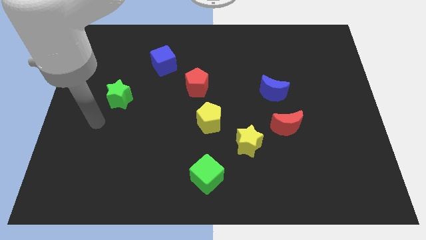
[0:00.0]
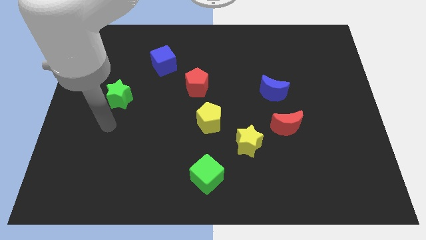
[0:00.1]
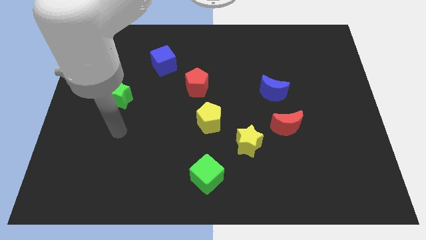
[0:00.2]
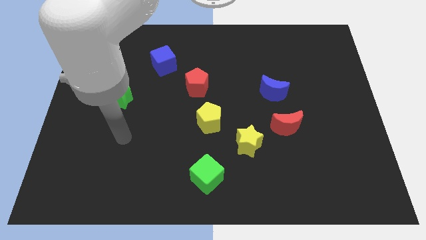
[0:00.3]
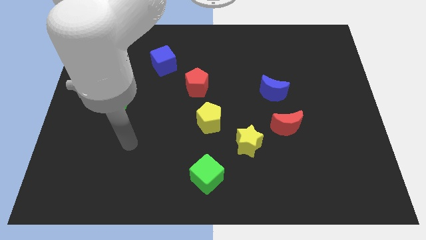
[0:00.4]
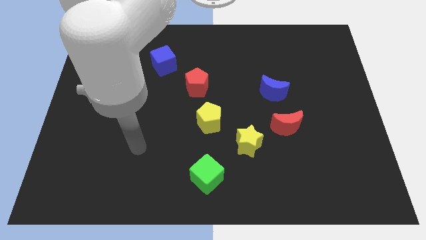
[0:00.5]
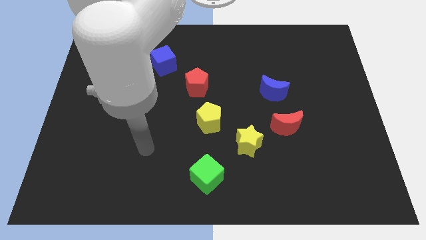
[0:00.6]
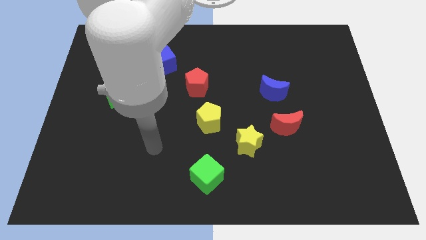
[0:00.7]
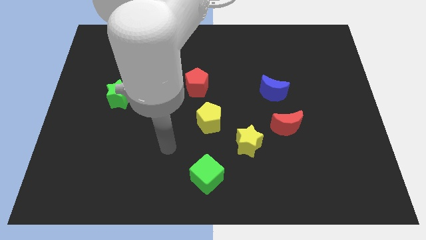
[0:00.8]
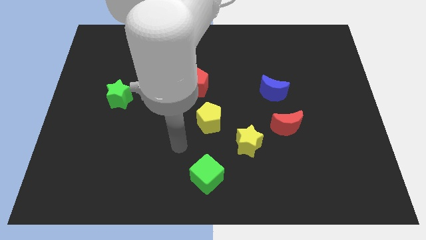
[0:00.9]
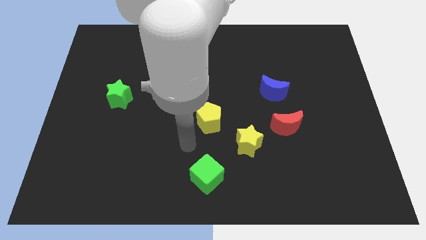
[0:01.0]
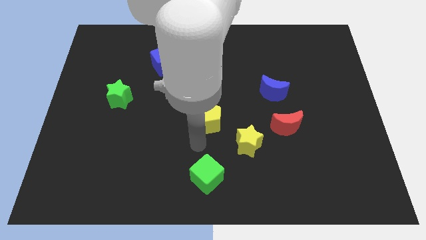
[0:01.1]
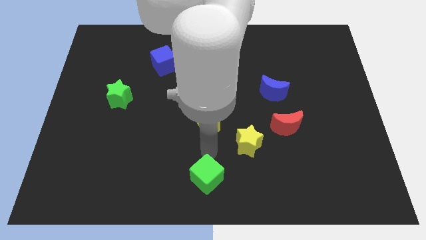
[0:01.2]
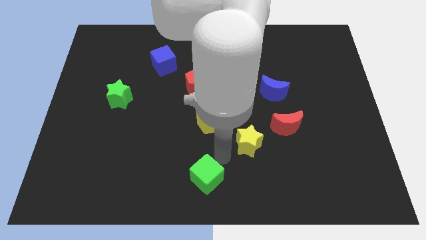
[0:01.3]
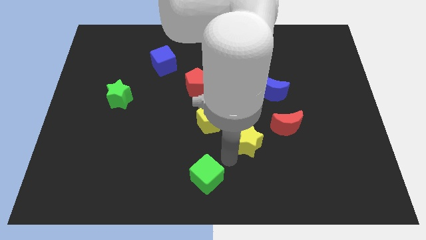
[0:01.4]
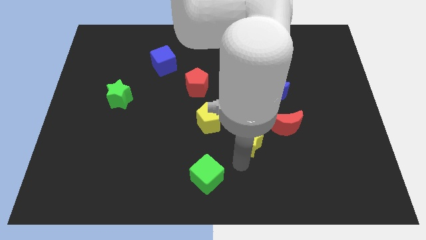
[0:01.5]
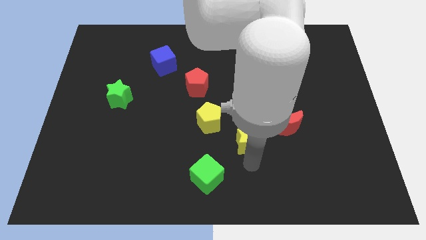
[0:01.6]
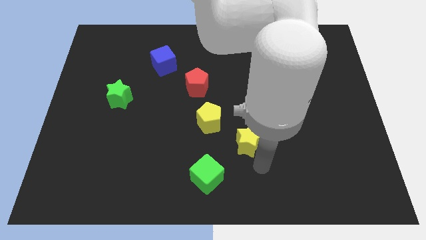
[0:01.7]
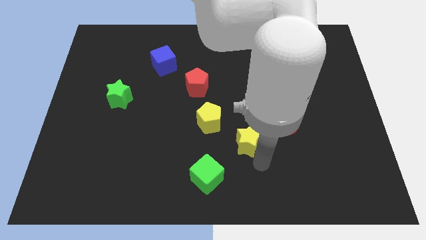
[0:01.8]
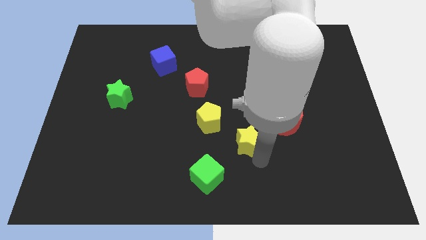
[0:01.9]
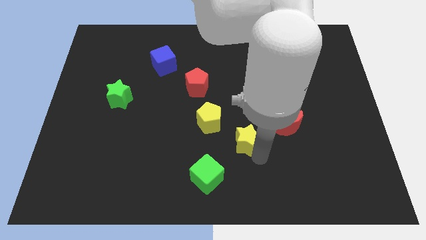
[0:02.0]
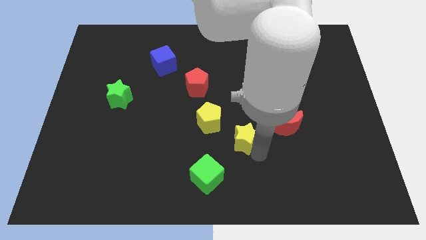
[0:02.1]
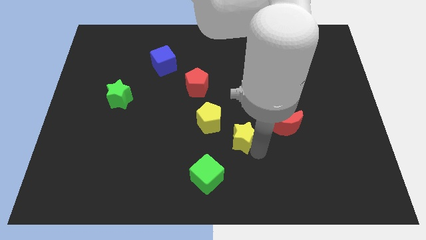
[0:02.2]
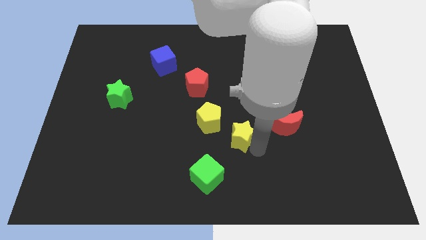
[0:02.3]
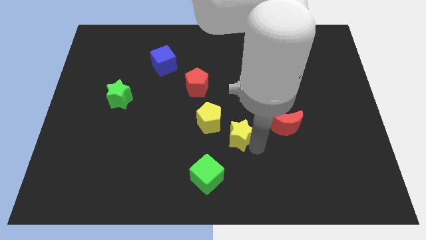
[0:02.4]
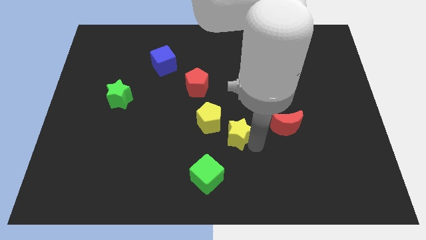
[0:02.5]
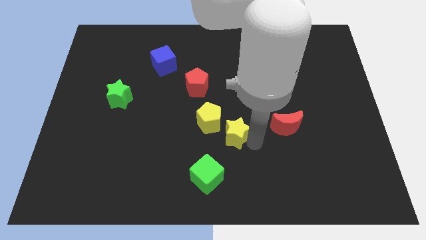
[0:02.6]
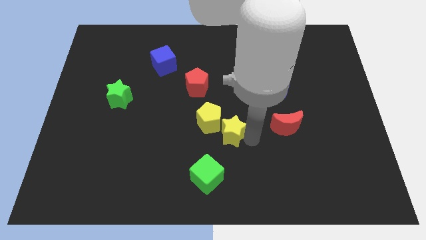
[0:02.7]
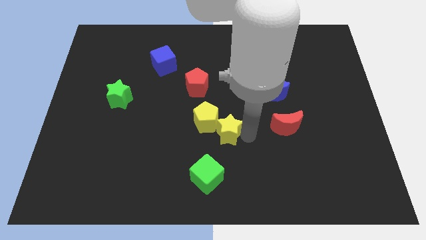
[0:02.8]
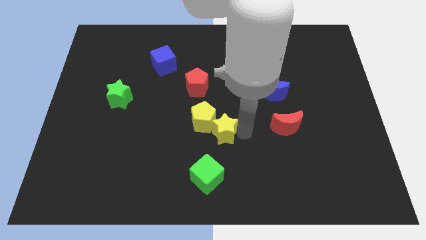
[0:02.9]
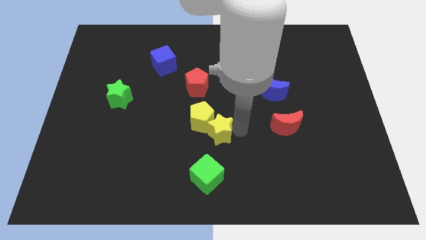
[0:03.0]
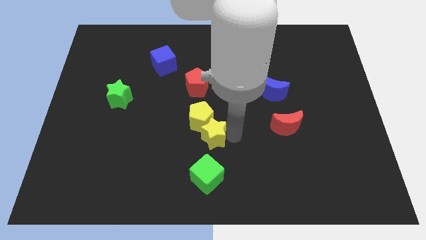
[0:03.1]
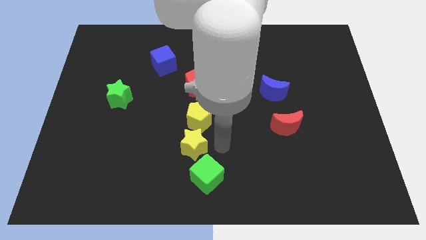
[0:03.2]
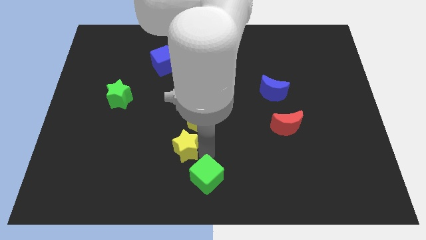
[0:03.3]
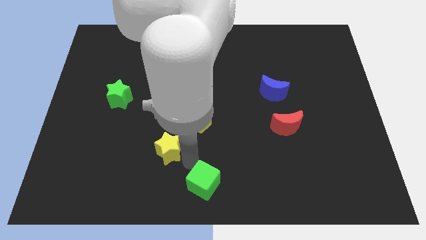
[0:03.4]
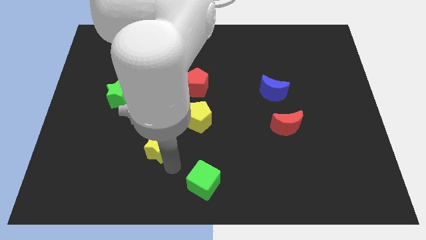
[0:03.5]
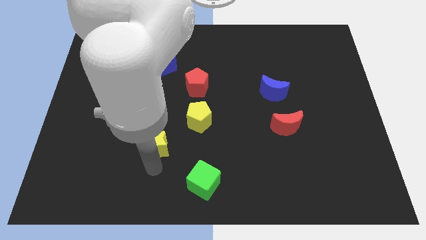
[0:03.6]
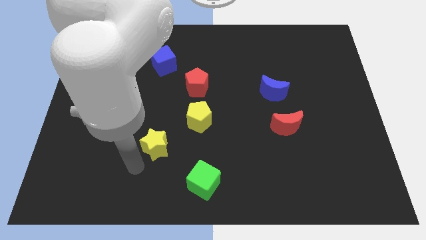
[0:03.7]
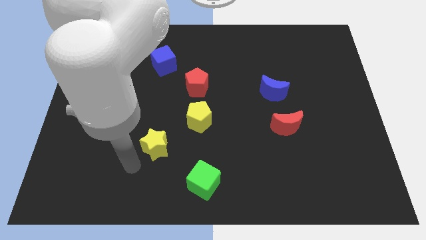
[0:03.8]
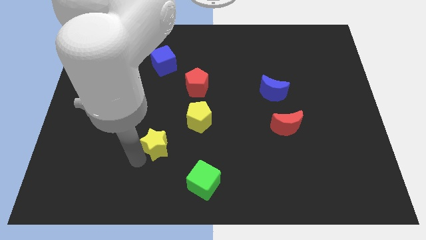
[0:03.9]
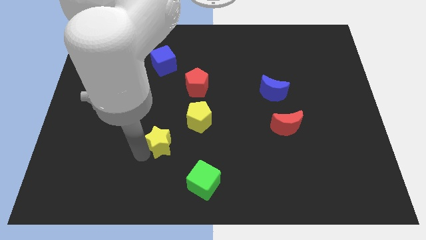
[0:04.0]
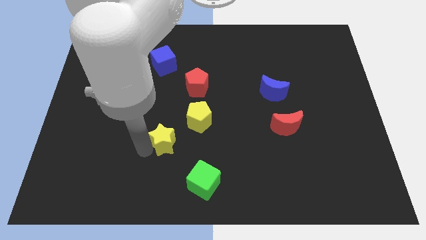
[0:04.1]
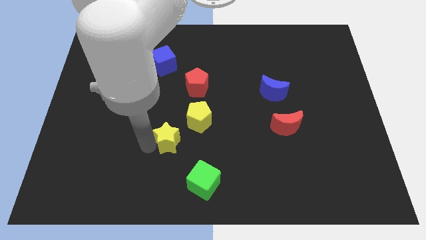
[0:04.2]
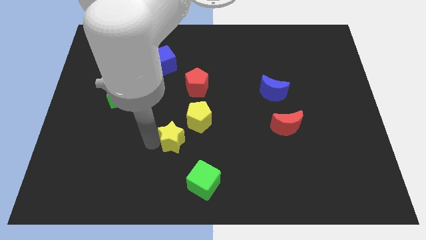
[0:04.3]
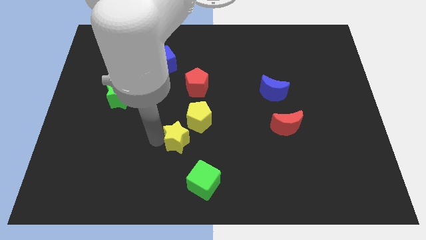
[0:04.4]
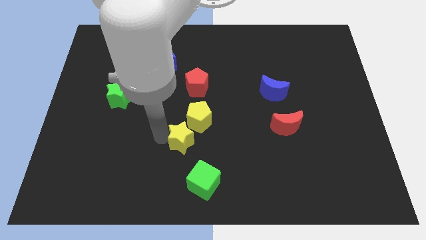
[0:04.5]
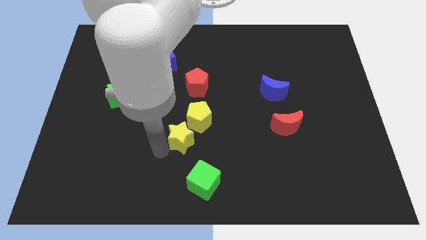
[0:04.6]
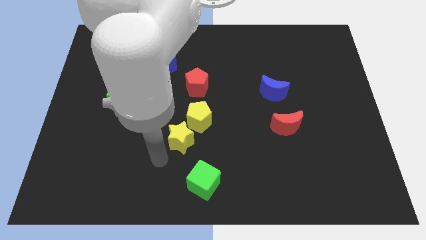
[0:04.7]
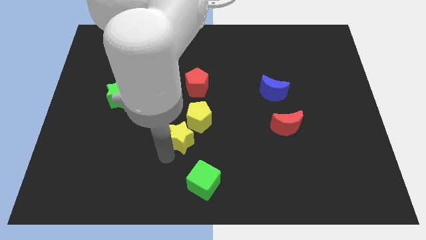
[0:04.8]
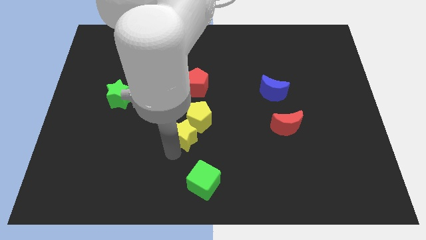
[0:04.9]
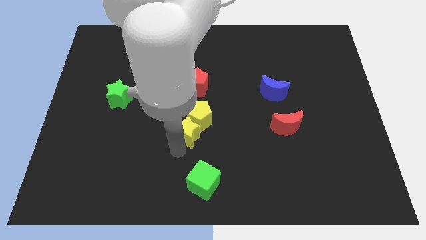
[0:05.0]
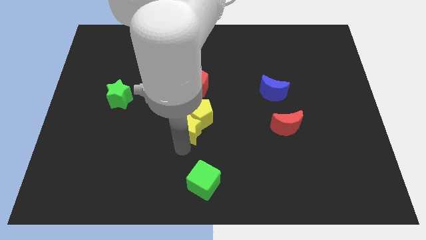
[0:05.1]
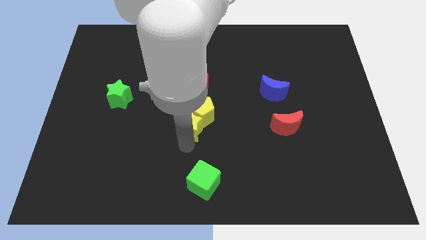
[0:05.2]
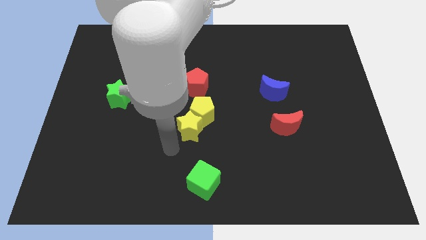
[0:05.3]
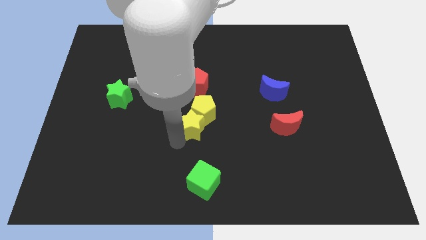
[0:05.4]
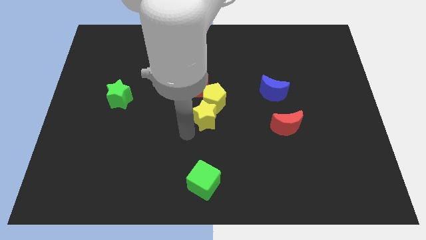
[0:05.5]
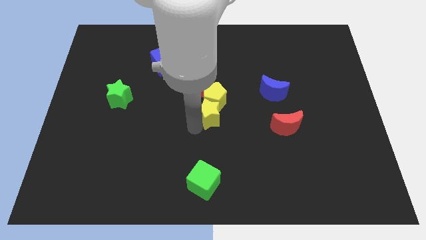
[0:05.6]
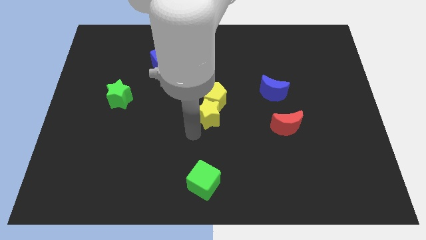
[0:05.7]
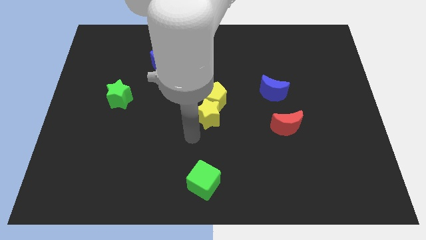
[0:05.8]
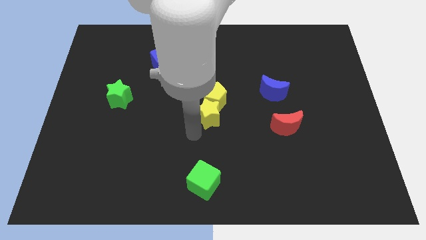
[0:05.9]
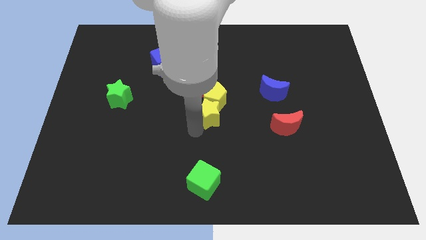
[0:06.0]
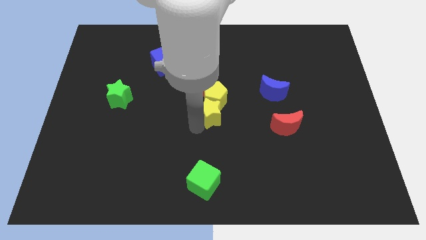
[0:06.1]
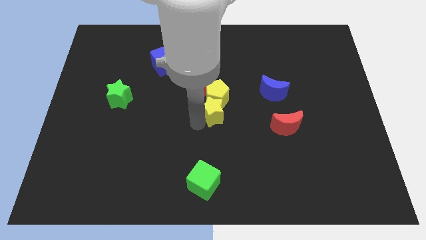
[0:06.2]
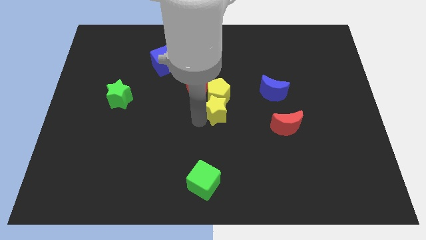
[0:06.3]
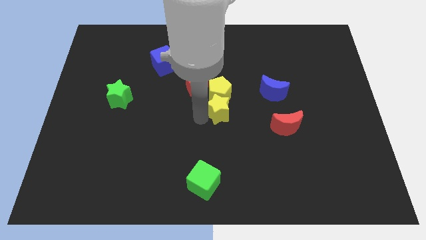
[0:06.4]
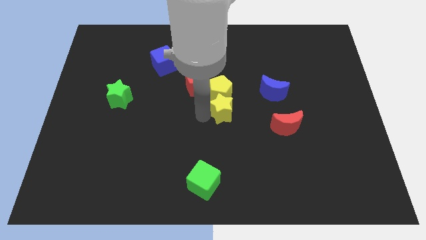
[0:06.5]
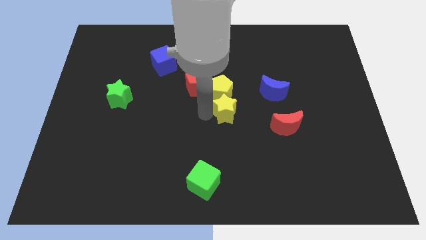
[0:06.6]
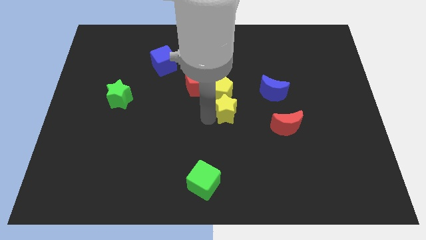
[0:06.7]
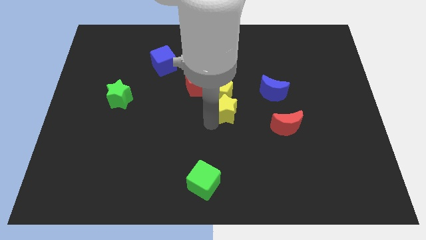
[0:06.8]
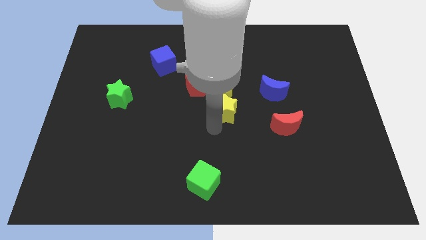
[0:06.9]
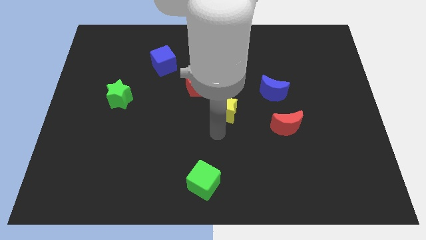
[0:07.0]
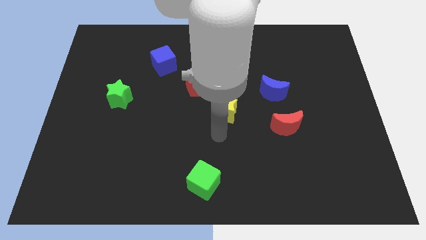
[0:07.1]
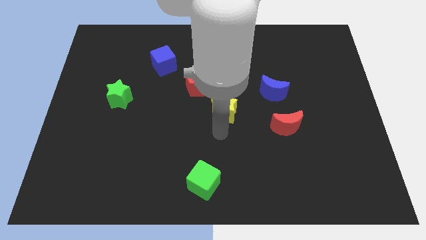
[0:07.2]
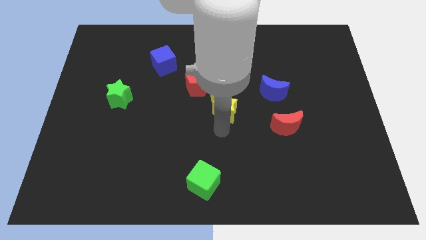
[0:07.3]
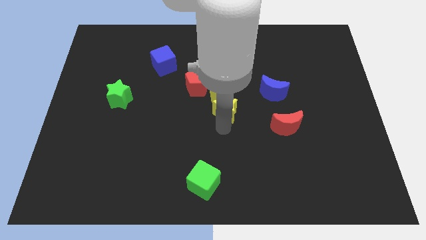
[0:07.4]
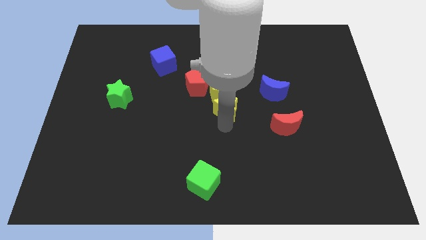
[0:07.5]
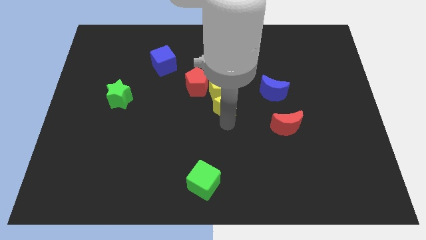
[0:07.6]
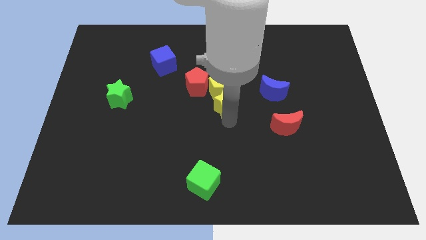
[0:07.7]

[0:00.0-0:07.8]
put the yellow star left of the blue moon
